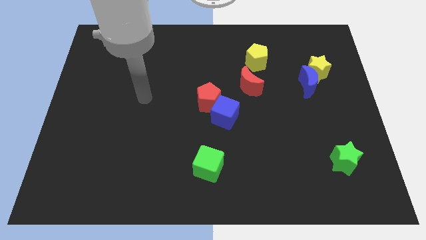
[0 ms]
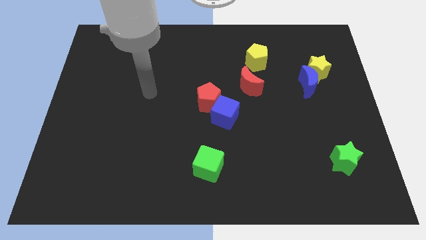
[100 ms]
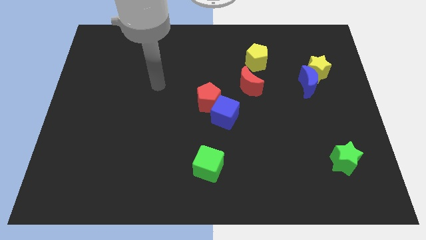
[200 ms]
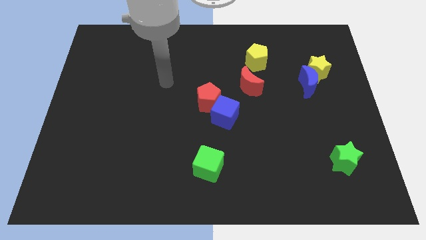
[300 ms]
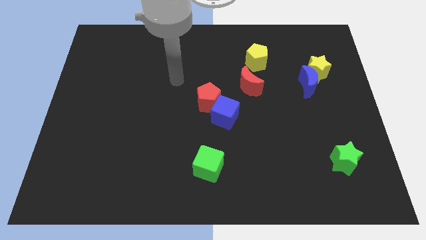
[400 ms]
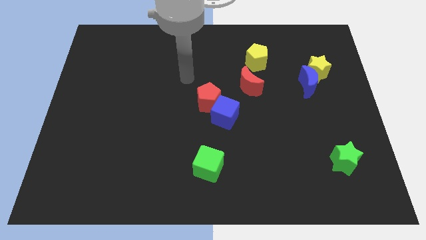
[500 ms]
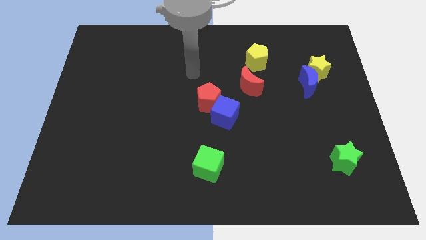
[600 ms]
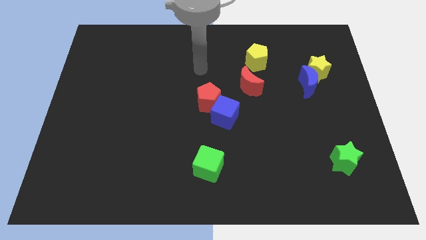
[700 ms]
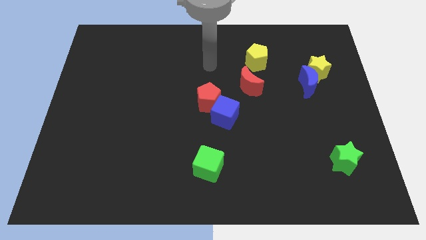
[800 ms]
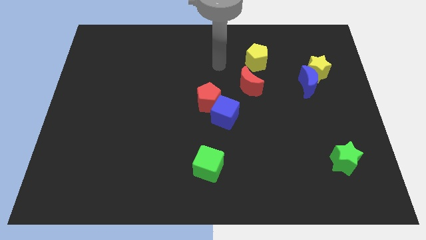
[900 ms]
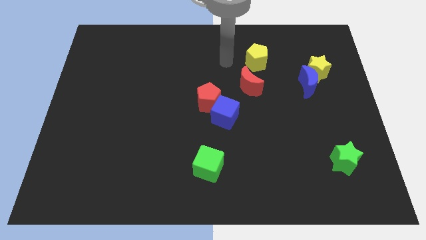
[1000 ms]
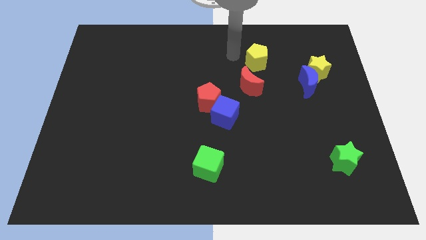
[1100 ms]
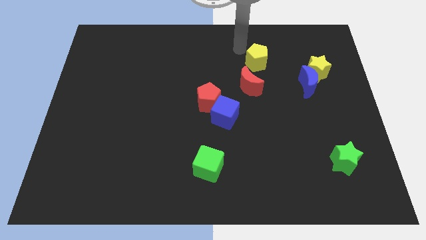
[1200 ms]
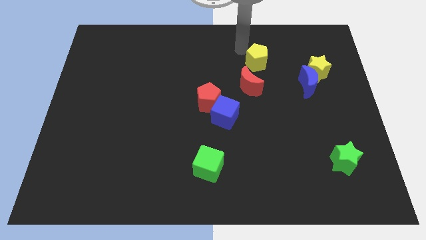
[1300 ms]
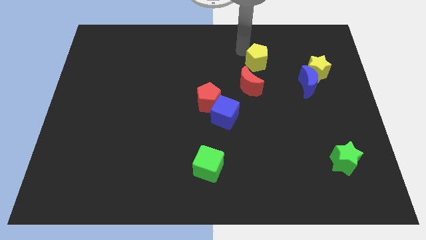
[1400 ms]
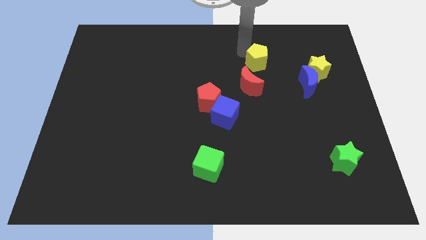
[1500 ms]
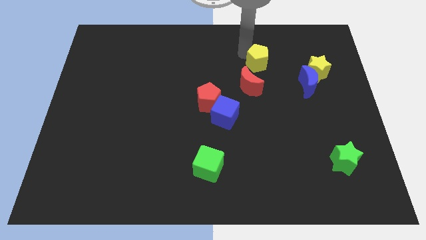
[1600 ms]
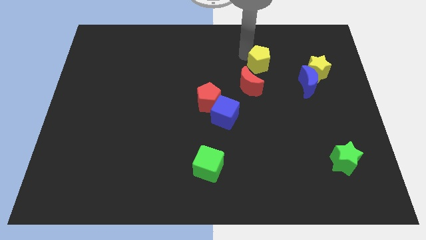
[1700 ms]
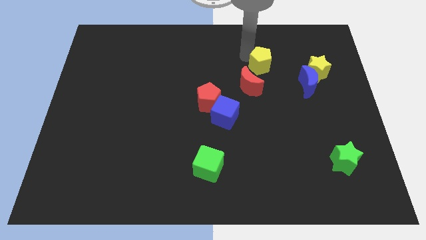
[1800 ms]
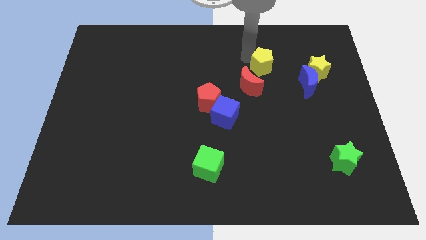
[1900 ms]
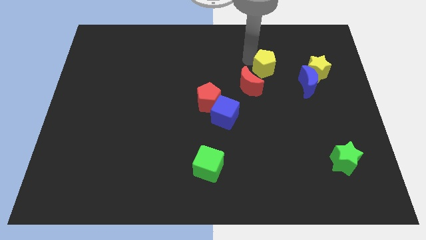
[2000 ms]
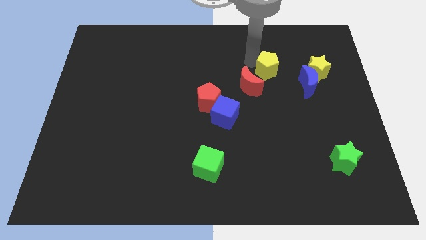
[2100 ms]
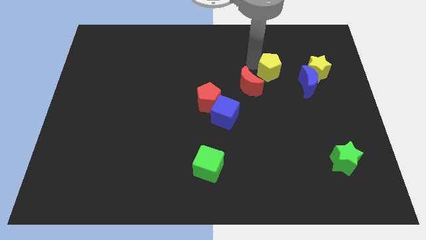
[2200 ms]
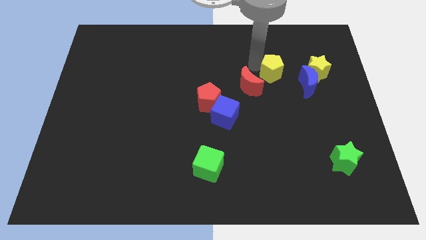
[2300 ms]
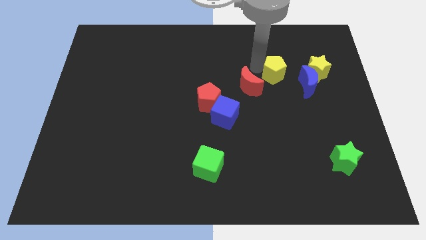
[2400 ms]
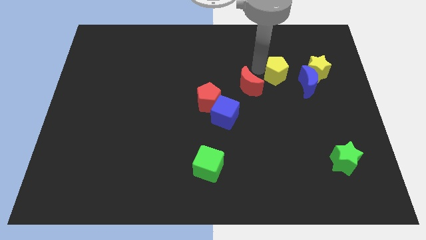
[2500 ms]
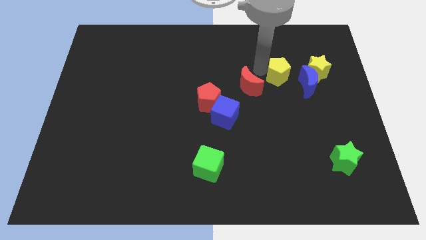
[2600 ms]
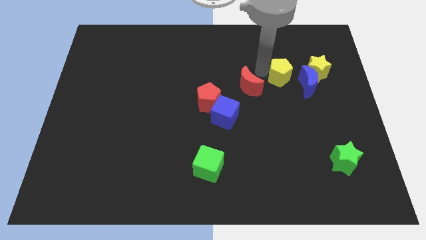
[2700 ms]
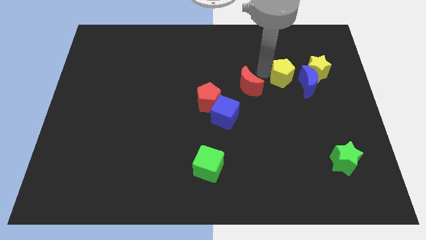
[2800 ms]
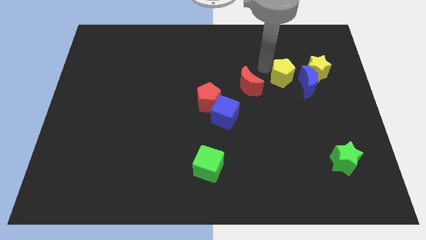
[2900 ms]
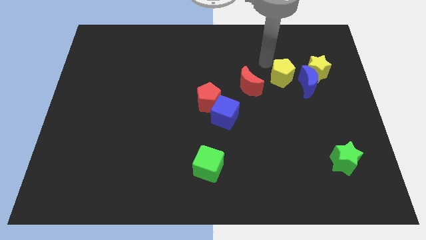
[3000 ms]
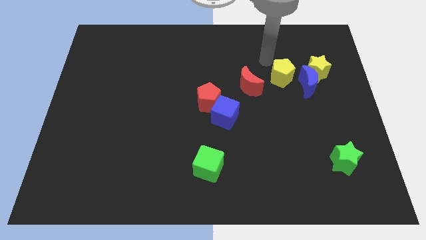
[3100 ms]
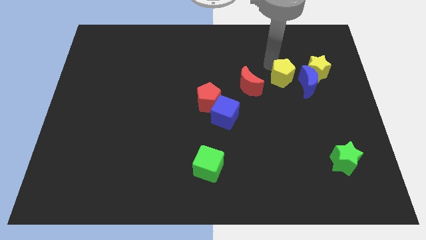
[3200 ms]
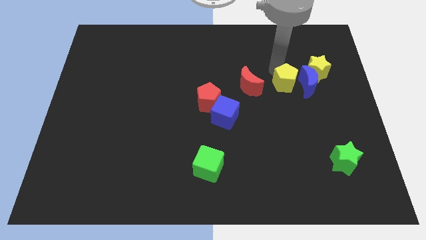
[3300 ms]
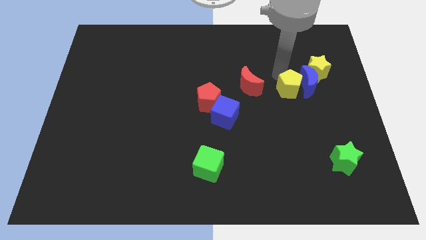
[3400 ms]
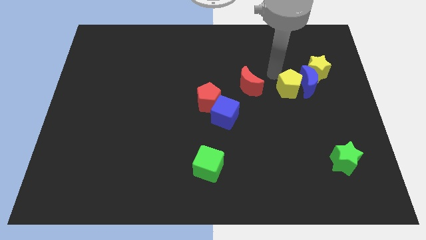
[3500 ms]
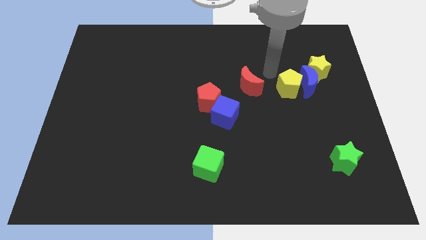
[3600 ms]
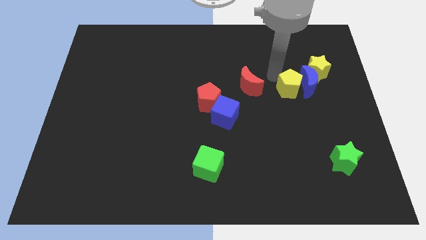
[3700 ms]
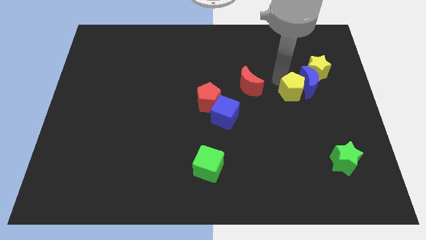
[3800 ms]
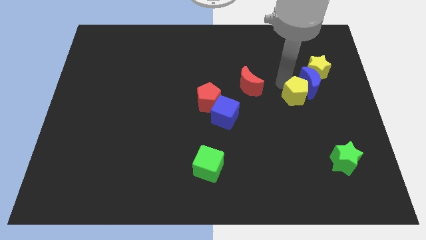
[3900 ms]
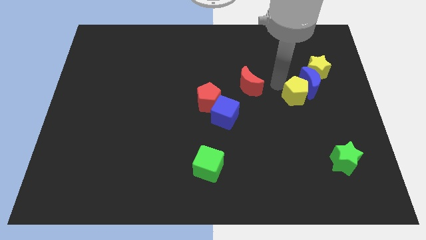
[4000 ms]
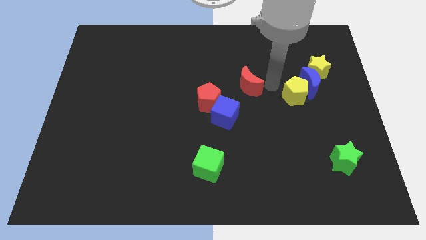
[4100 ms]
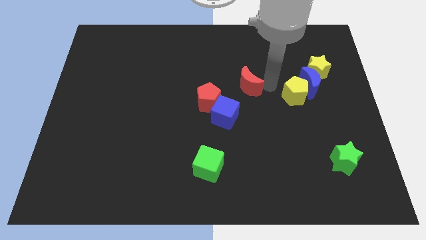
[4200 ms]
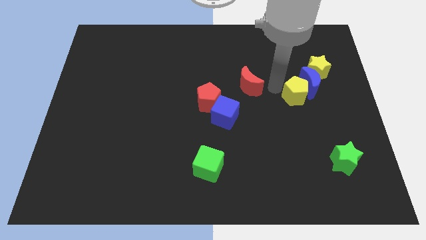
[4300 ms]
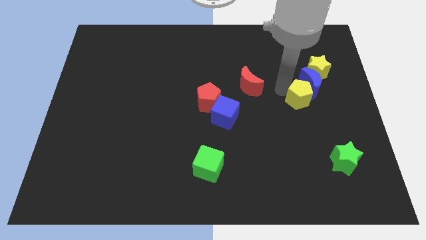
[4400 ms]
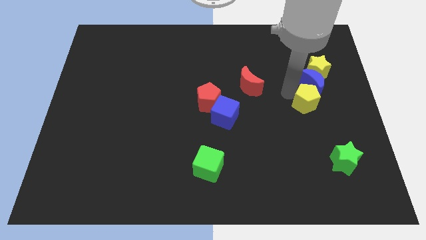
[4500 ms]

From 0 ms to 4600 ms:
slide the yellow pentagon to the bottom side of the yellow star

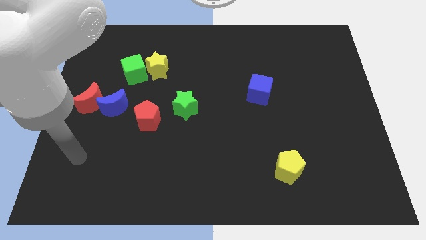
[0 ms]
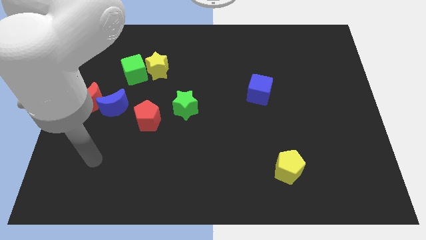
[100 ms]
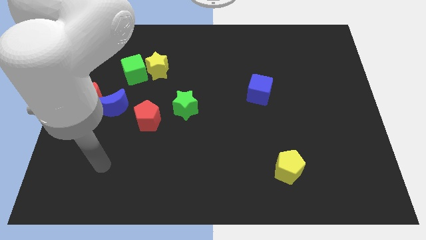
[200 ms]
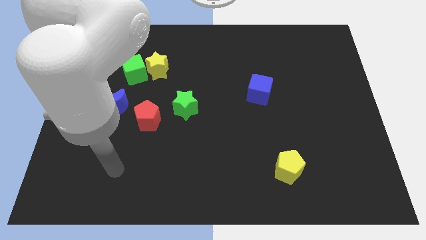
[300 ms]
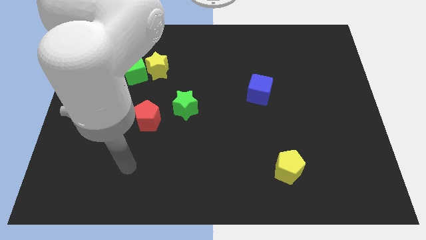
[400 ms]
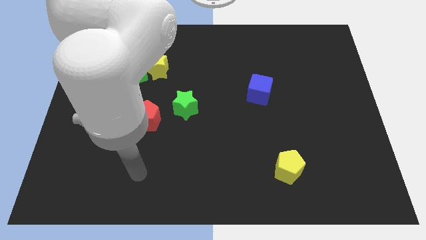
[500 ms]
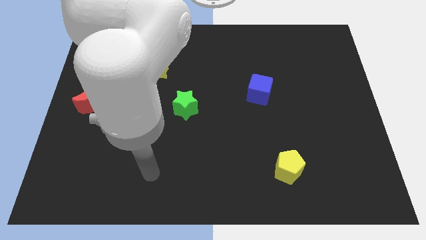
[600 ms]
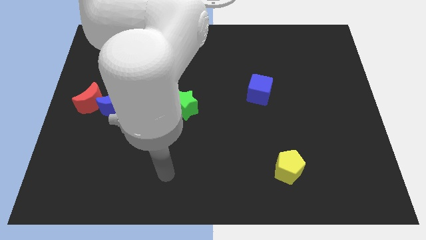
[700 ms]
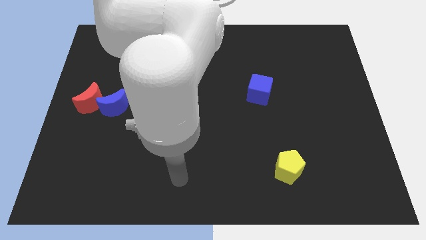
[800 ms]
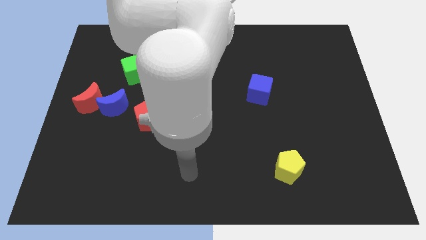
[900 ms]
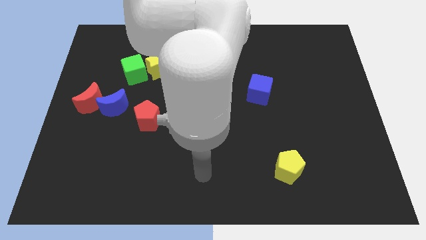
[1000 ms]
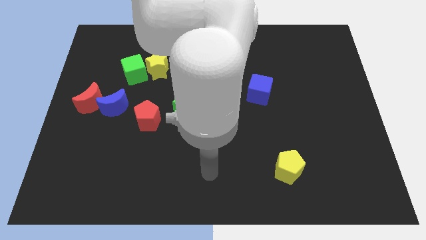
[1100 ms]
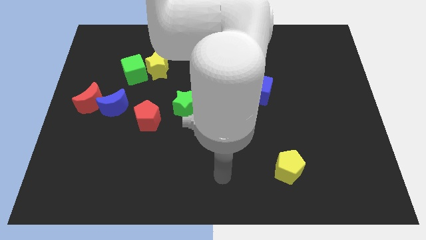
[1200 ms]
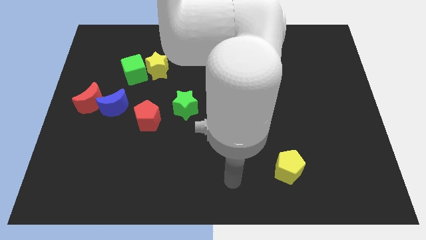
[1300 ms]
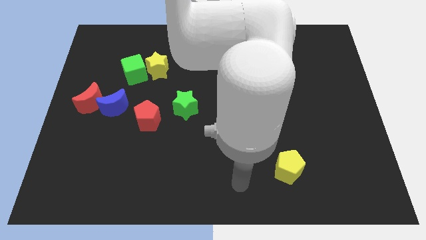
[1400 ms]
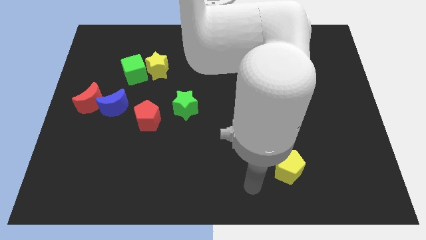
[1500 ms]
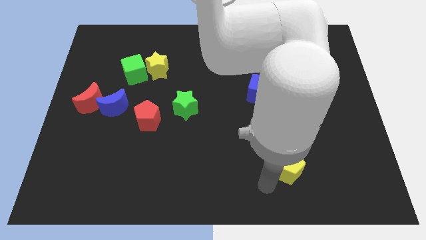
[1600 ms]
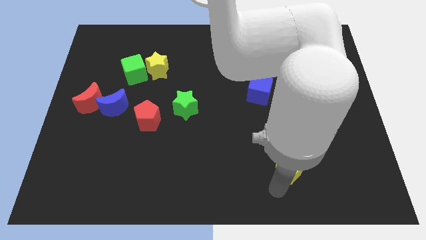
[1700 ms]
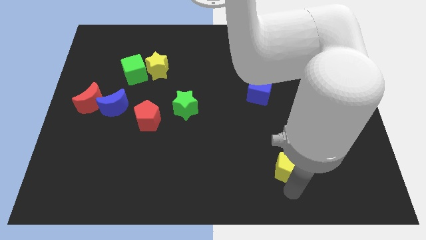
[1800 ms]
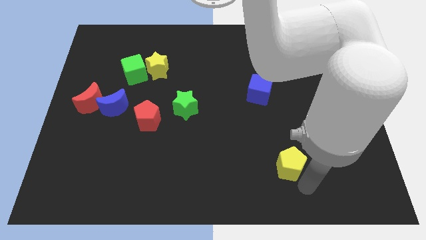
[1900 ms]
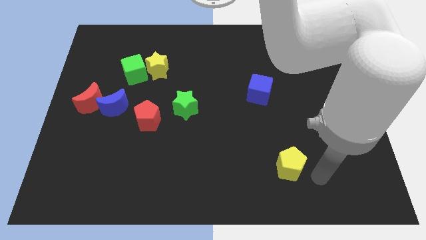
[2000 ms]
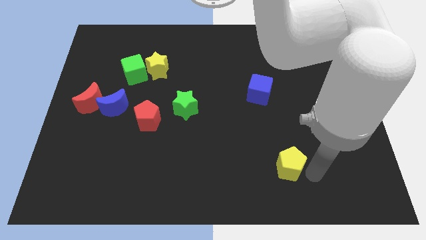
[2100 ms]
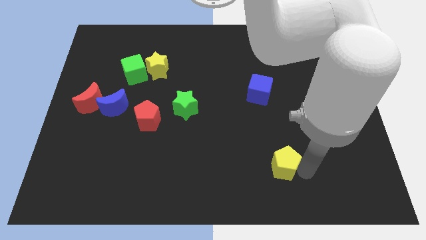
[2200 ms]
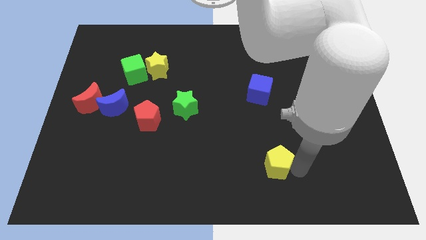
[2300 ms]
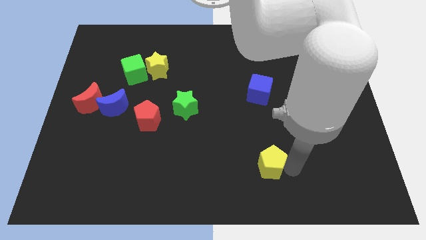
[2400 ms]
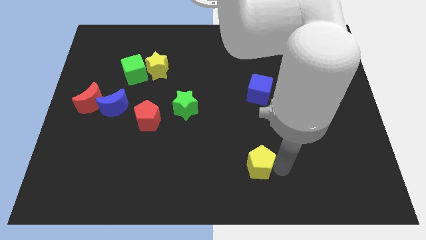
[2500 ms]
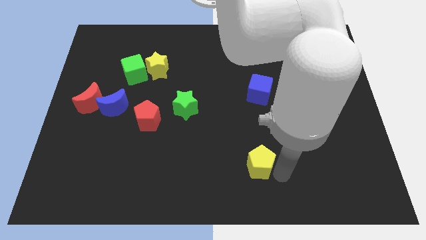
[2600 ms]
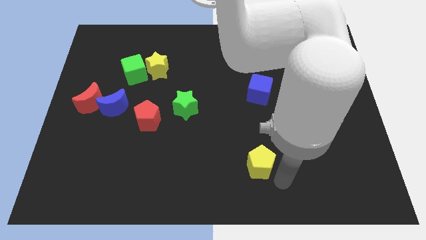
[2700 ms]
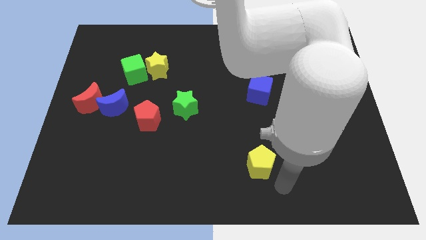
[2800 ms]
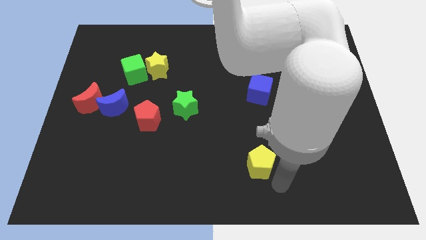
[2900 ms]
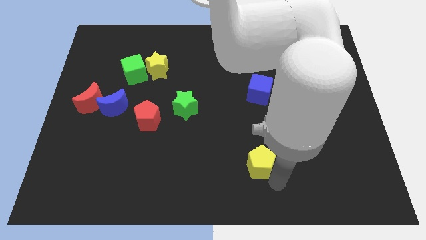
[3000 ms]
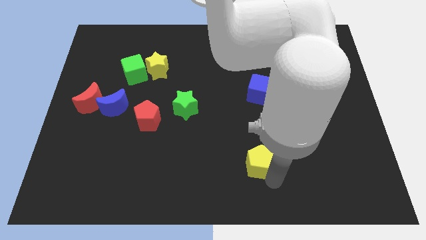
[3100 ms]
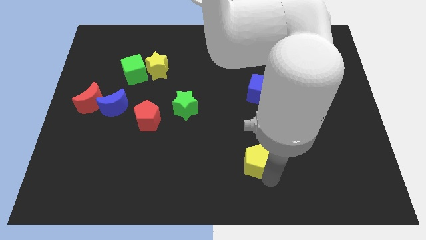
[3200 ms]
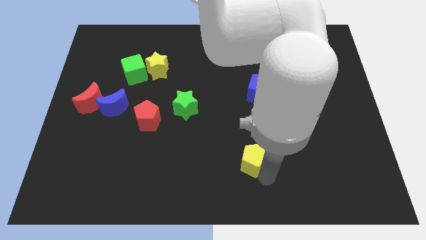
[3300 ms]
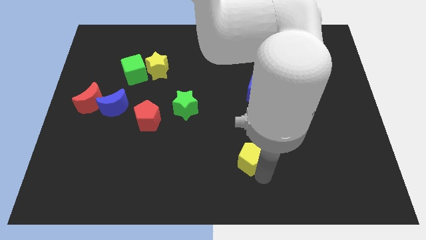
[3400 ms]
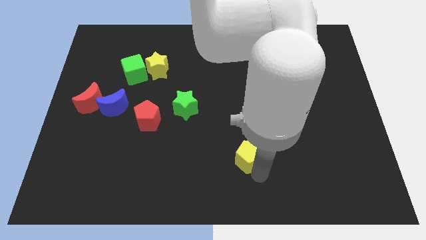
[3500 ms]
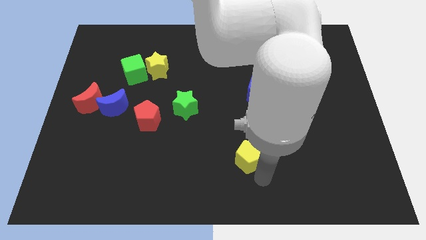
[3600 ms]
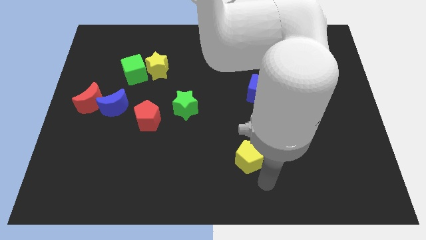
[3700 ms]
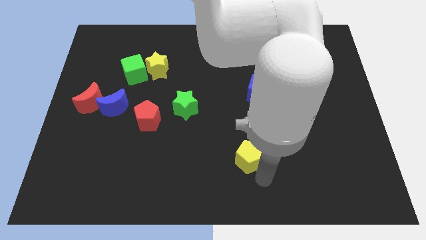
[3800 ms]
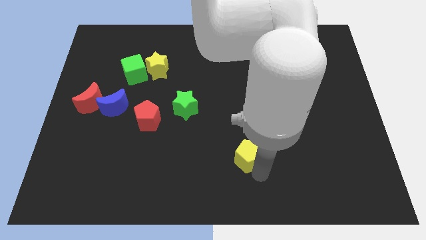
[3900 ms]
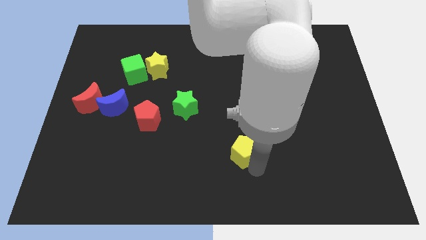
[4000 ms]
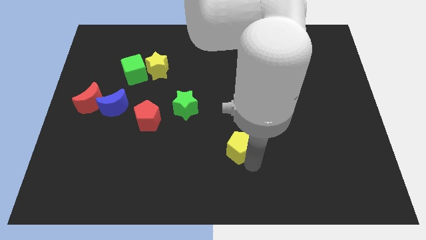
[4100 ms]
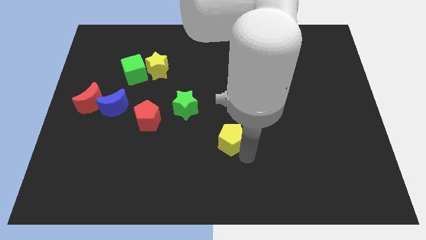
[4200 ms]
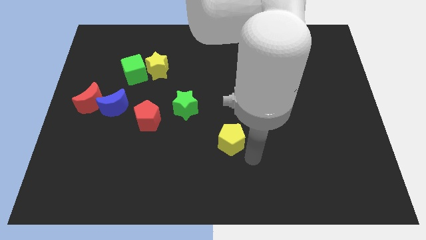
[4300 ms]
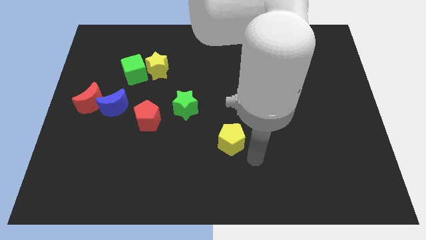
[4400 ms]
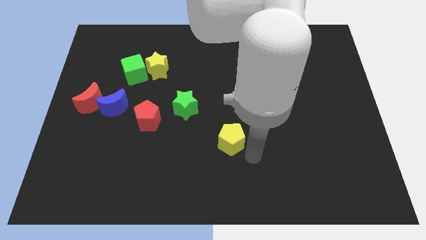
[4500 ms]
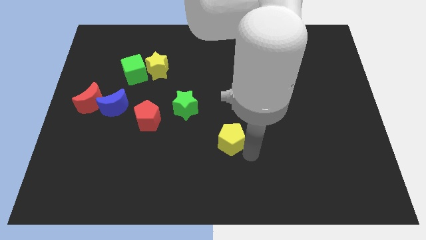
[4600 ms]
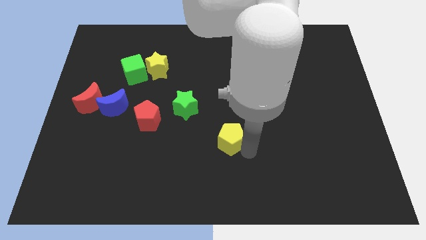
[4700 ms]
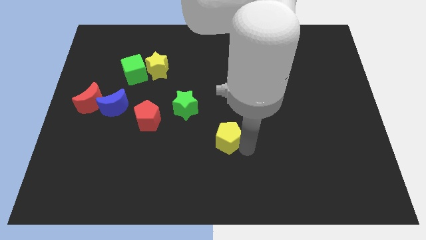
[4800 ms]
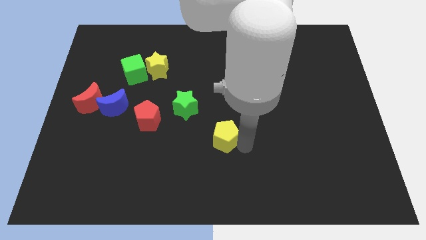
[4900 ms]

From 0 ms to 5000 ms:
put the yellow pentagon diagonally down and to the right of the green star
